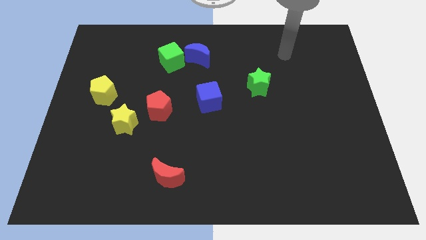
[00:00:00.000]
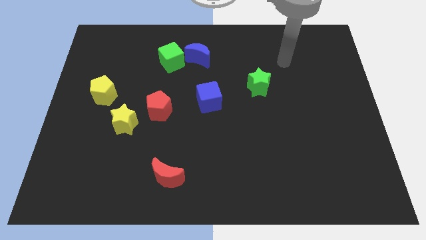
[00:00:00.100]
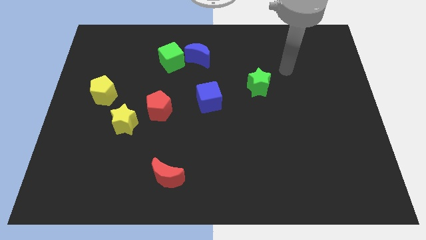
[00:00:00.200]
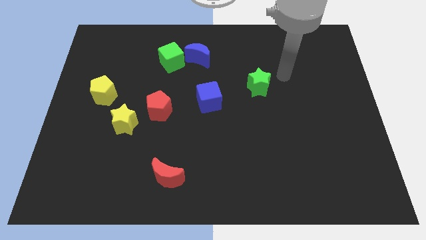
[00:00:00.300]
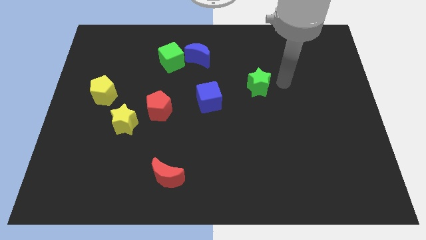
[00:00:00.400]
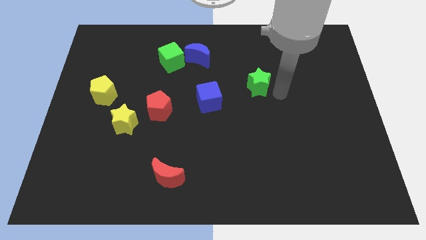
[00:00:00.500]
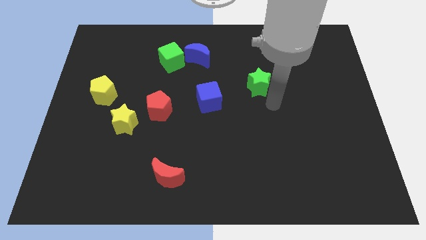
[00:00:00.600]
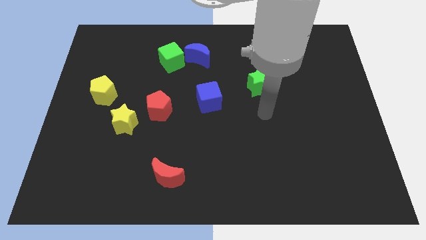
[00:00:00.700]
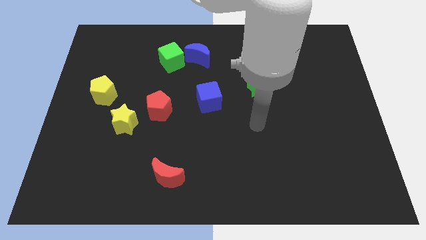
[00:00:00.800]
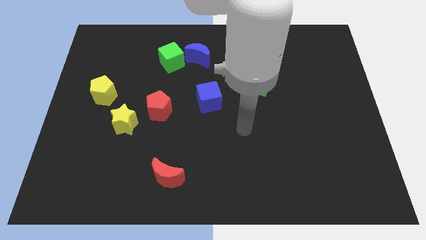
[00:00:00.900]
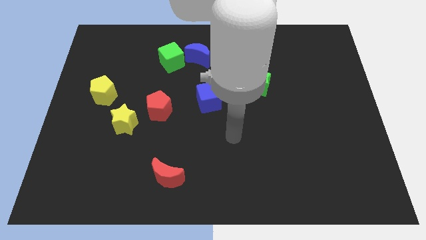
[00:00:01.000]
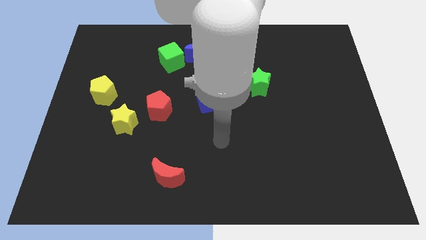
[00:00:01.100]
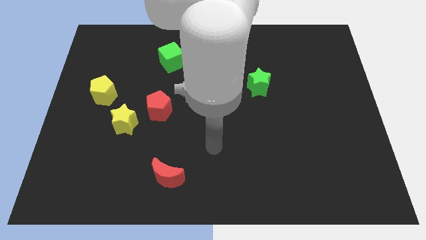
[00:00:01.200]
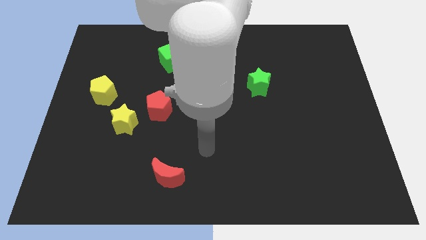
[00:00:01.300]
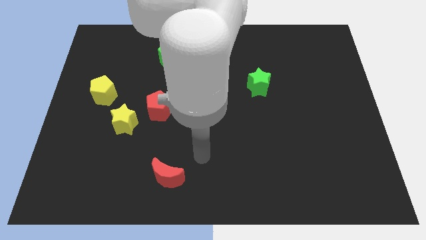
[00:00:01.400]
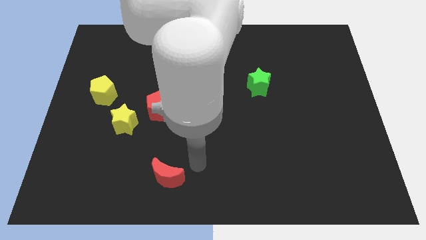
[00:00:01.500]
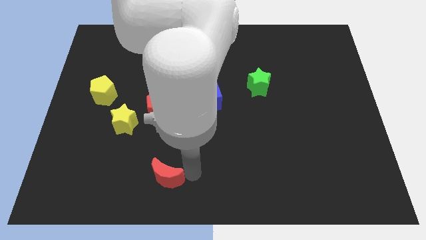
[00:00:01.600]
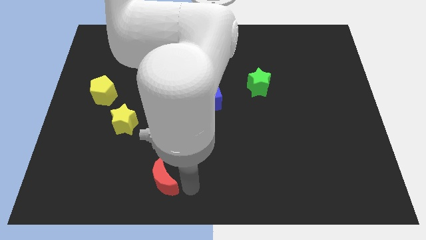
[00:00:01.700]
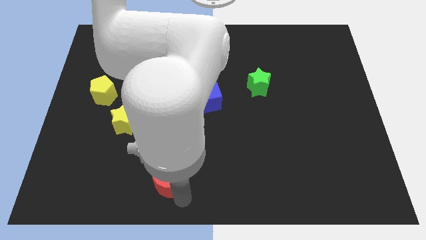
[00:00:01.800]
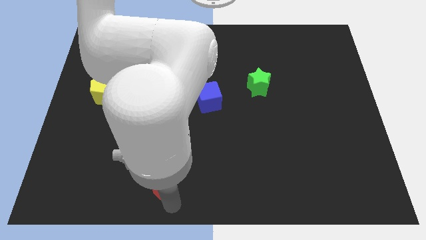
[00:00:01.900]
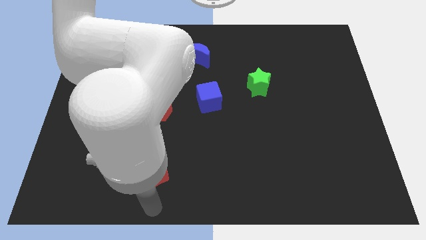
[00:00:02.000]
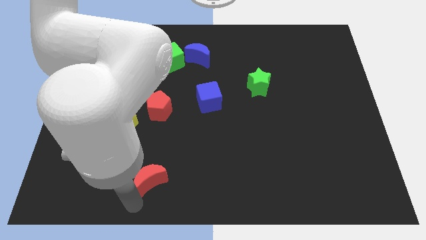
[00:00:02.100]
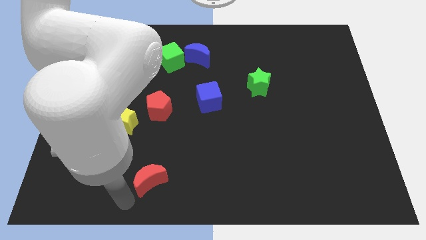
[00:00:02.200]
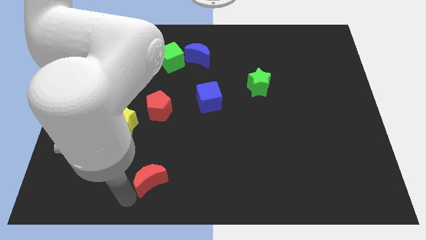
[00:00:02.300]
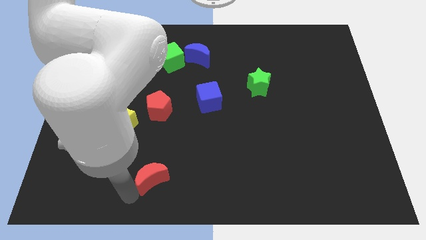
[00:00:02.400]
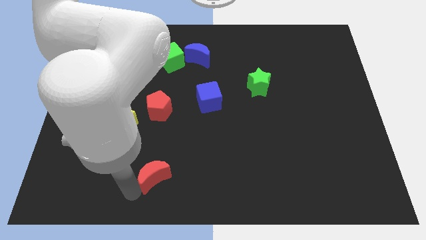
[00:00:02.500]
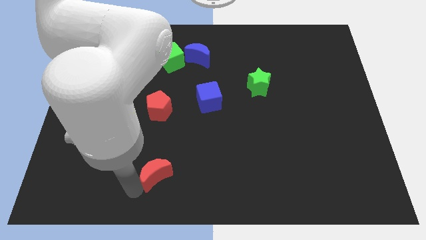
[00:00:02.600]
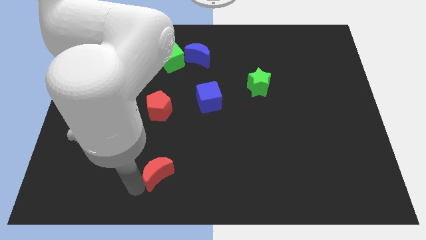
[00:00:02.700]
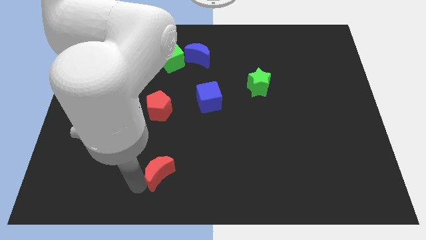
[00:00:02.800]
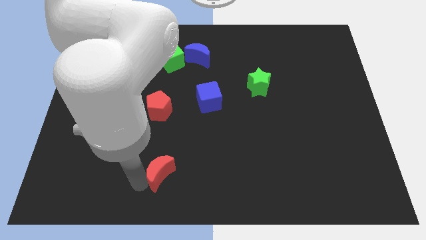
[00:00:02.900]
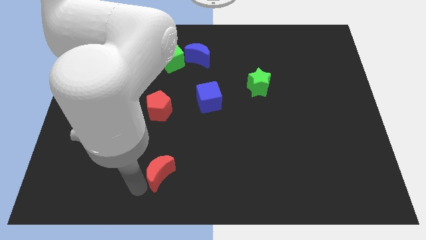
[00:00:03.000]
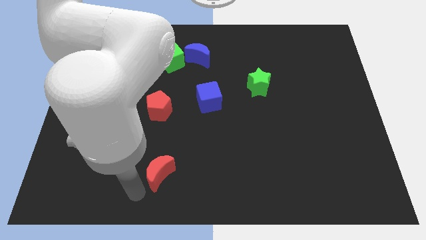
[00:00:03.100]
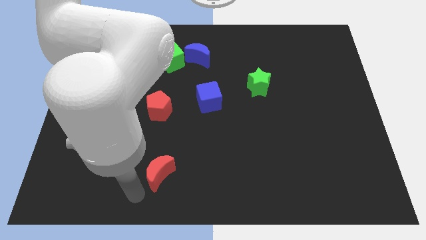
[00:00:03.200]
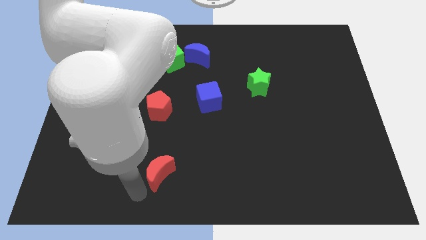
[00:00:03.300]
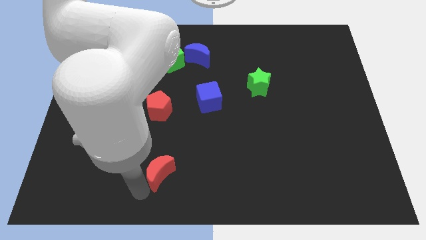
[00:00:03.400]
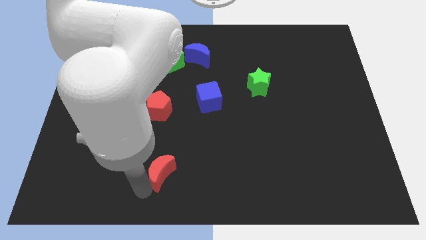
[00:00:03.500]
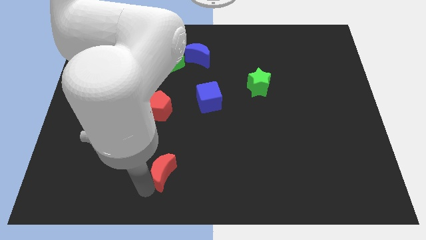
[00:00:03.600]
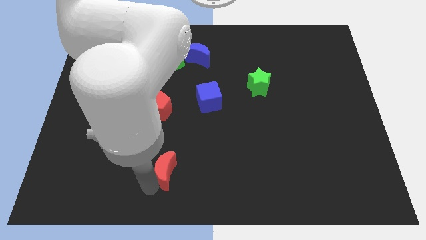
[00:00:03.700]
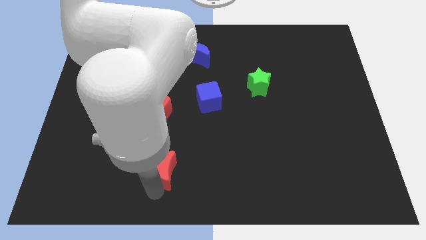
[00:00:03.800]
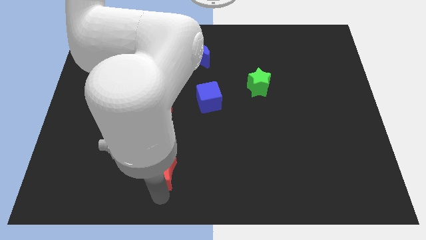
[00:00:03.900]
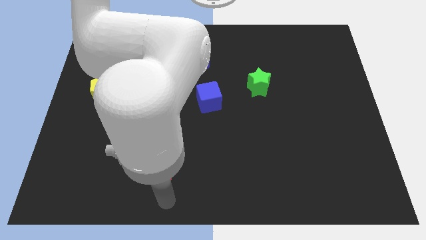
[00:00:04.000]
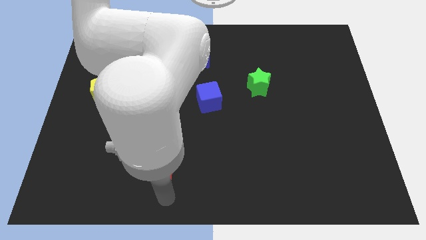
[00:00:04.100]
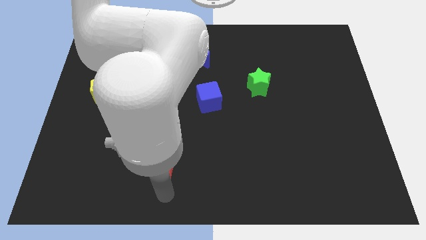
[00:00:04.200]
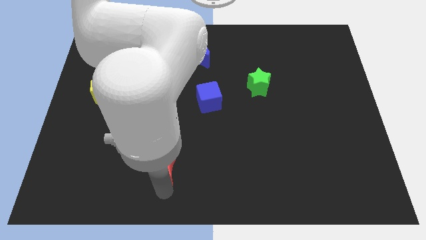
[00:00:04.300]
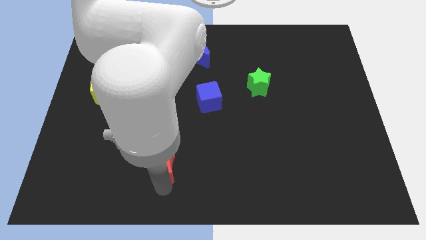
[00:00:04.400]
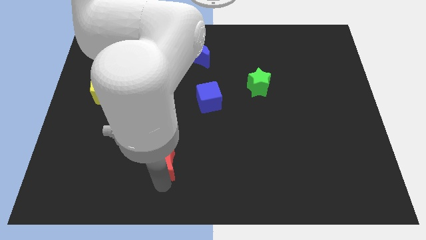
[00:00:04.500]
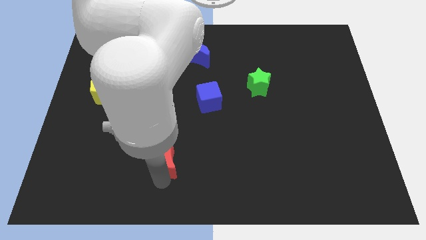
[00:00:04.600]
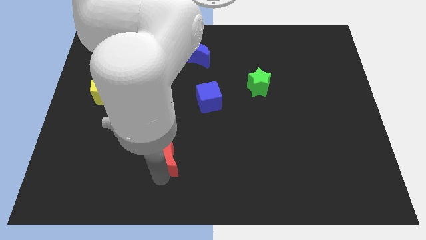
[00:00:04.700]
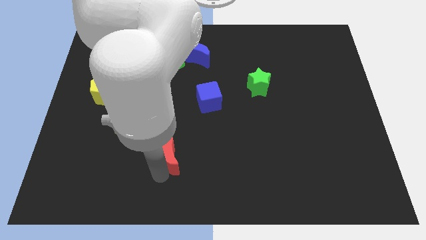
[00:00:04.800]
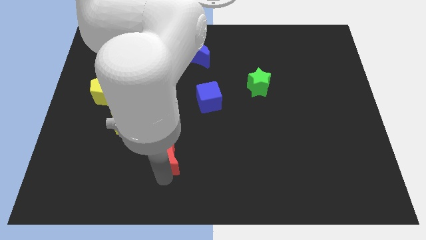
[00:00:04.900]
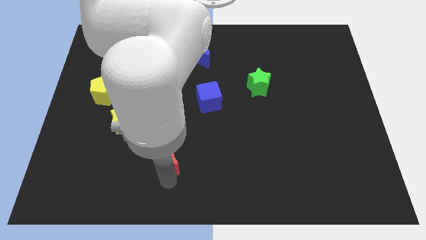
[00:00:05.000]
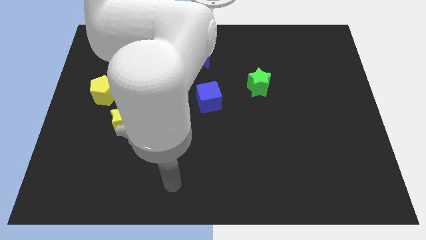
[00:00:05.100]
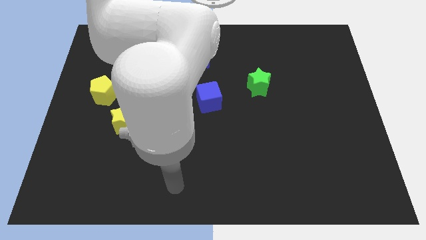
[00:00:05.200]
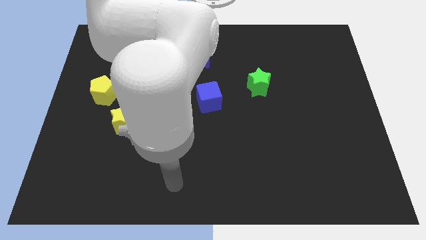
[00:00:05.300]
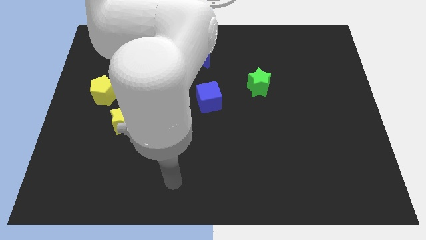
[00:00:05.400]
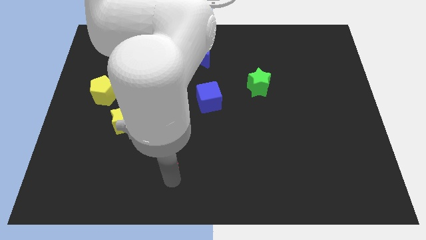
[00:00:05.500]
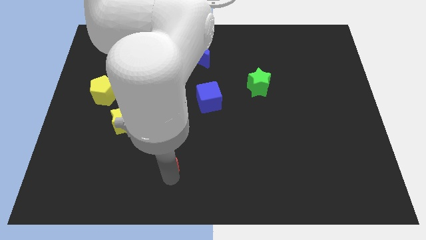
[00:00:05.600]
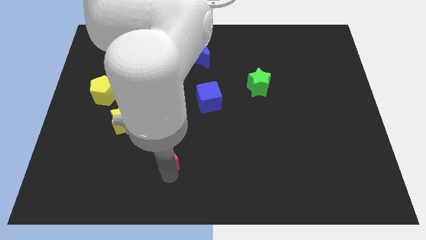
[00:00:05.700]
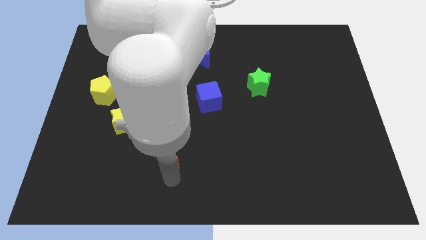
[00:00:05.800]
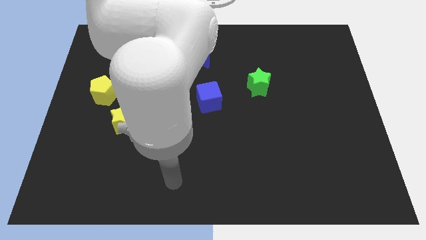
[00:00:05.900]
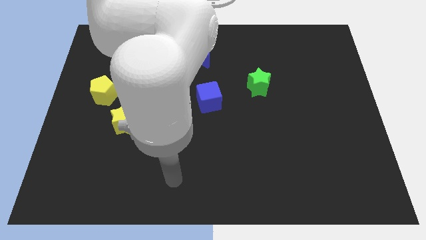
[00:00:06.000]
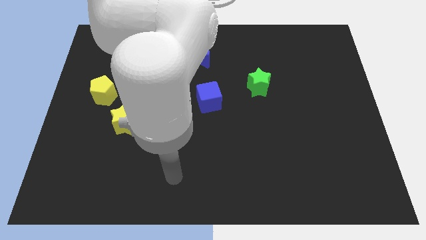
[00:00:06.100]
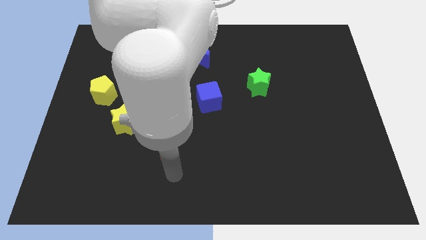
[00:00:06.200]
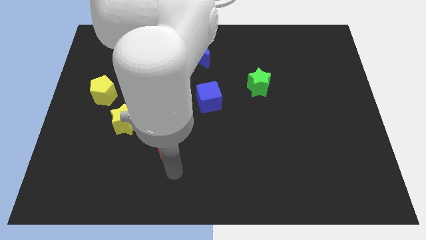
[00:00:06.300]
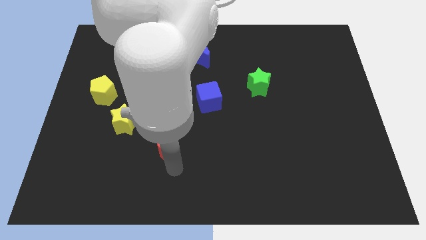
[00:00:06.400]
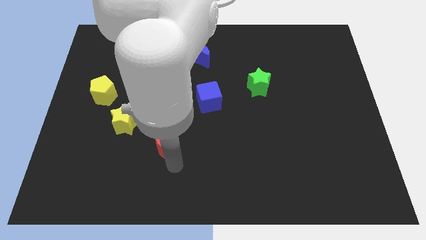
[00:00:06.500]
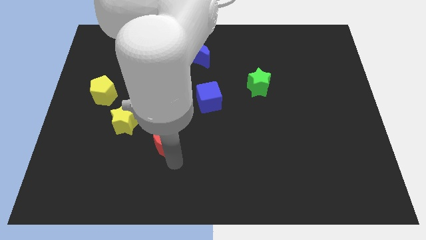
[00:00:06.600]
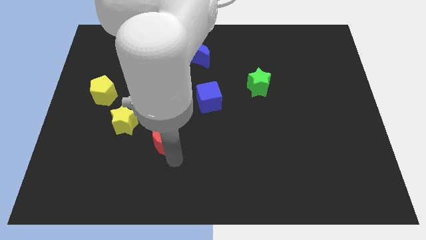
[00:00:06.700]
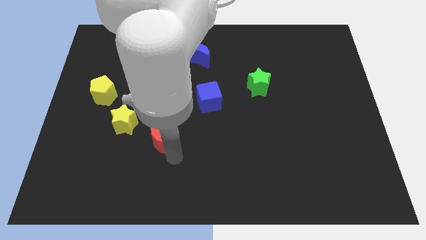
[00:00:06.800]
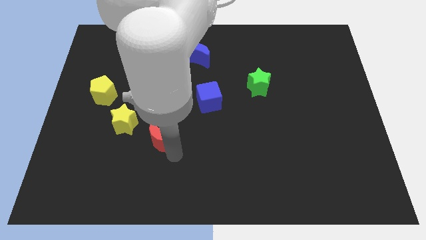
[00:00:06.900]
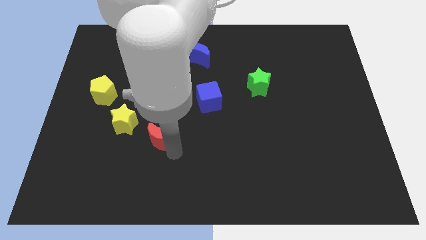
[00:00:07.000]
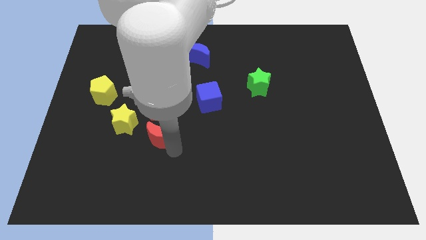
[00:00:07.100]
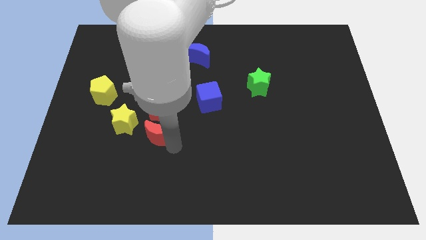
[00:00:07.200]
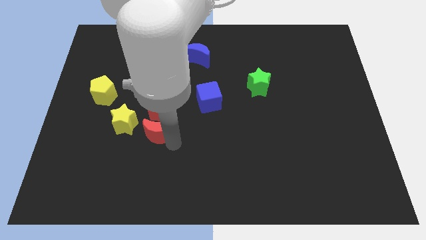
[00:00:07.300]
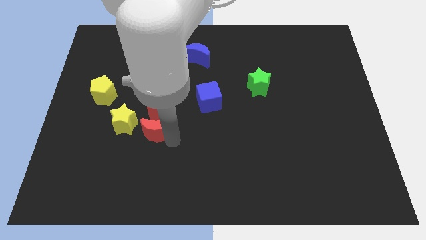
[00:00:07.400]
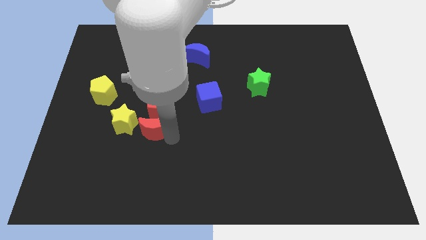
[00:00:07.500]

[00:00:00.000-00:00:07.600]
put the red moon next to the red pentagon
